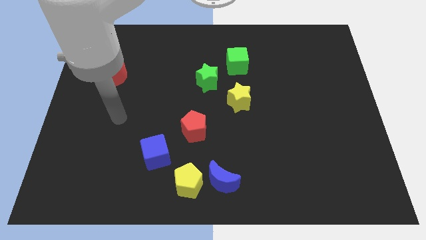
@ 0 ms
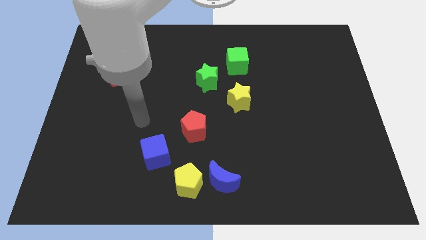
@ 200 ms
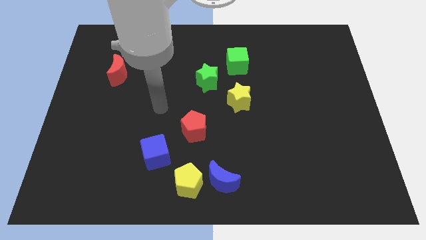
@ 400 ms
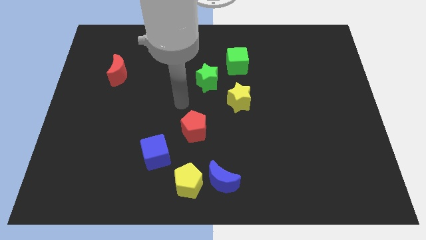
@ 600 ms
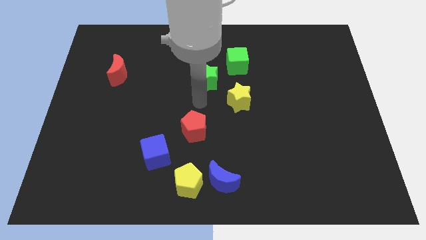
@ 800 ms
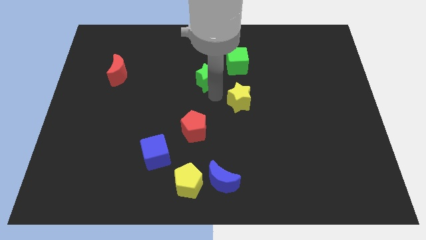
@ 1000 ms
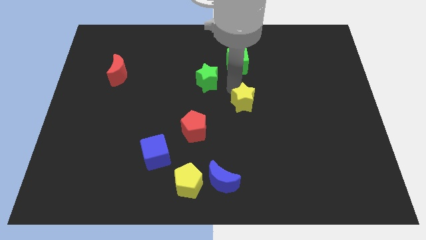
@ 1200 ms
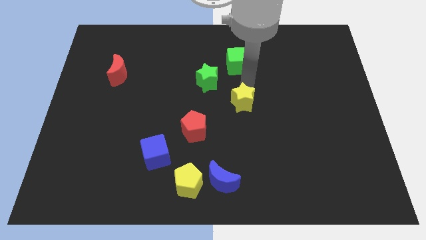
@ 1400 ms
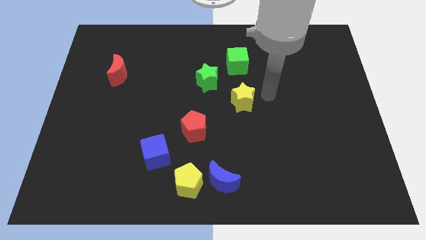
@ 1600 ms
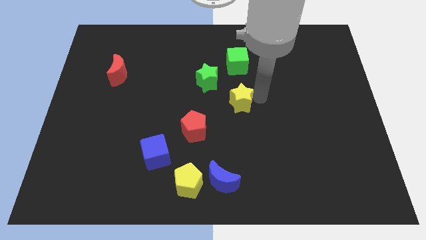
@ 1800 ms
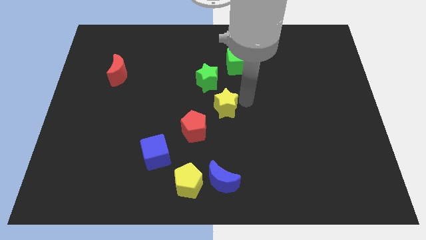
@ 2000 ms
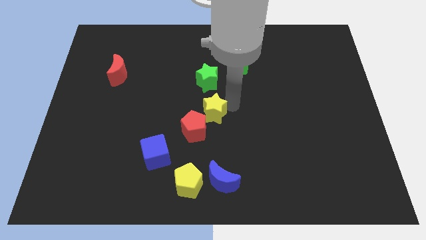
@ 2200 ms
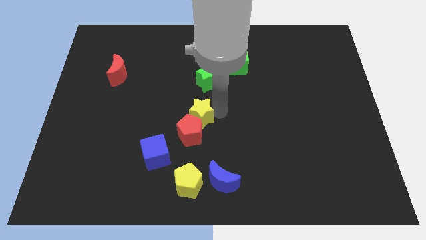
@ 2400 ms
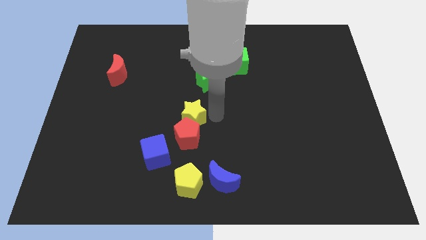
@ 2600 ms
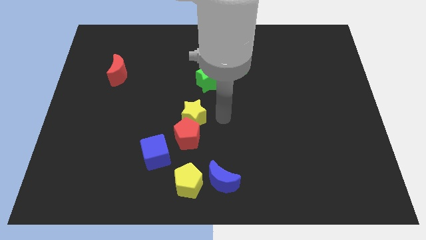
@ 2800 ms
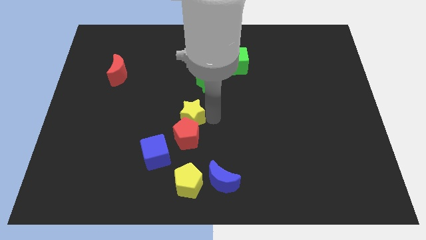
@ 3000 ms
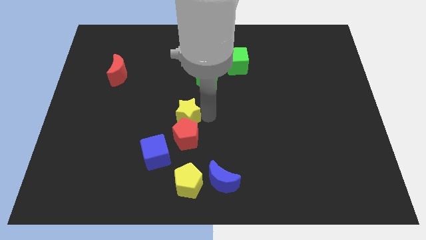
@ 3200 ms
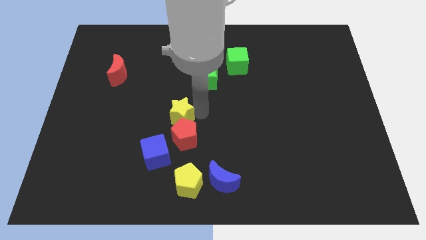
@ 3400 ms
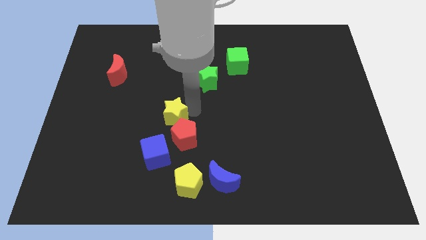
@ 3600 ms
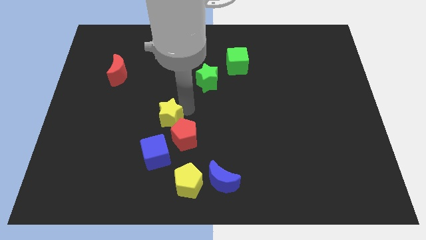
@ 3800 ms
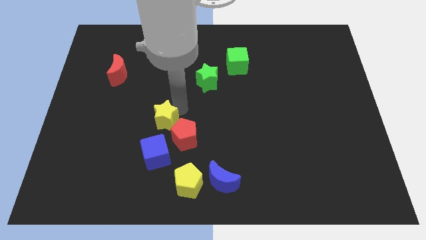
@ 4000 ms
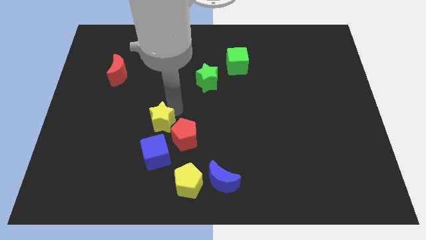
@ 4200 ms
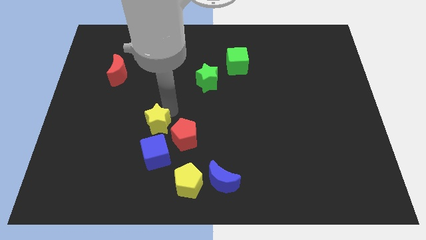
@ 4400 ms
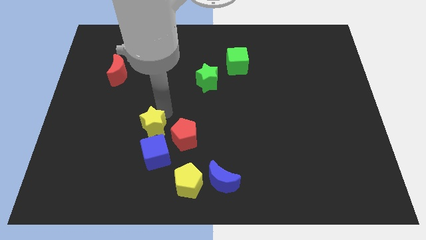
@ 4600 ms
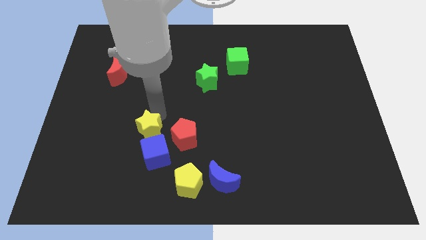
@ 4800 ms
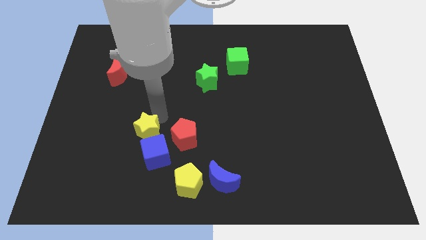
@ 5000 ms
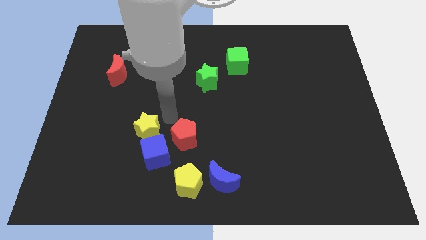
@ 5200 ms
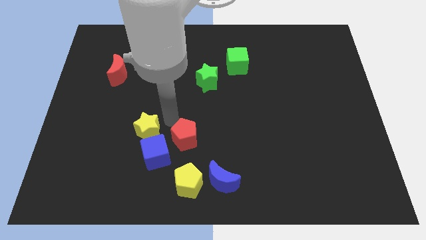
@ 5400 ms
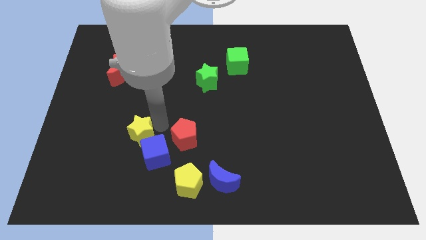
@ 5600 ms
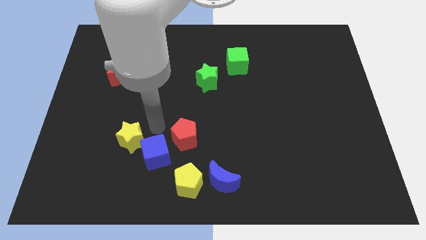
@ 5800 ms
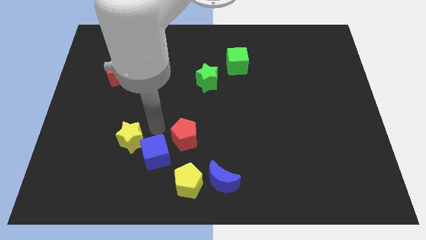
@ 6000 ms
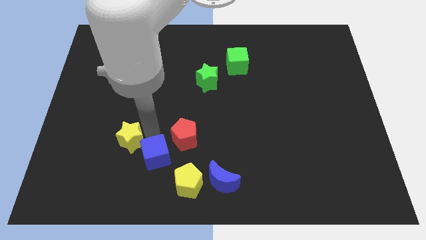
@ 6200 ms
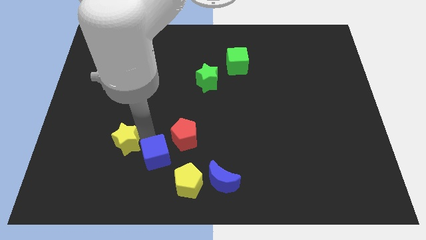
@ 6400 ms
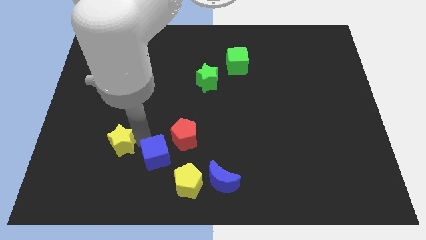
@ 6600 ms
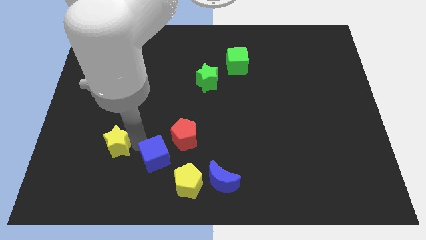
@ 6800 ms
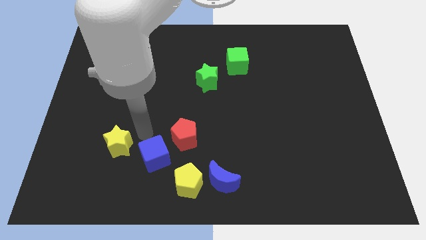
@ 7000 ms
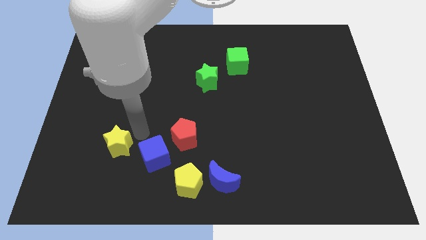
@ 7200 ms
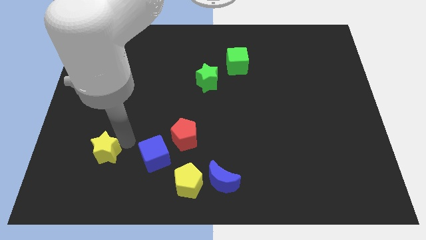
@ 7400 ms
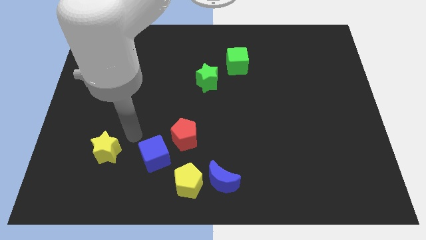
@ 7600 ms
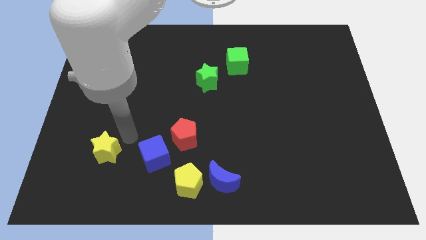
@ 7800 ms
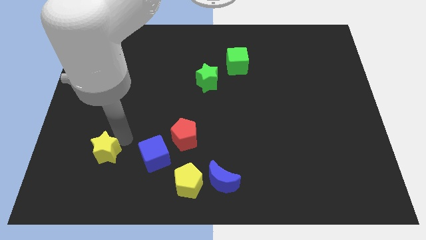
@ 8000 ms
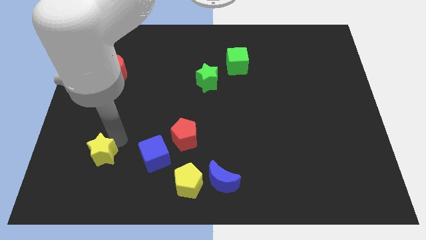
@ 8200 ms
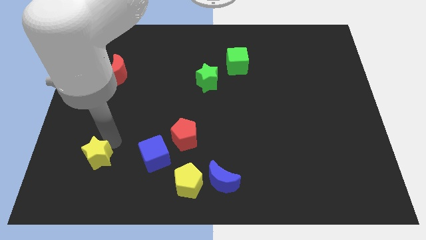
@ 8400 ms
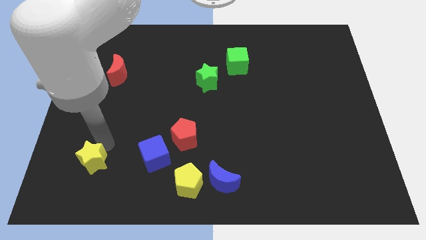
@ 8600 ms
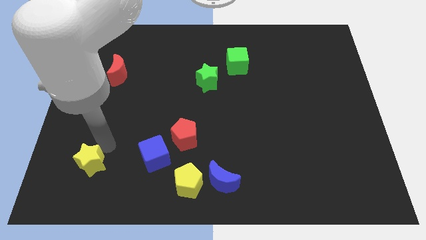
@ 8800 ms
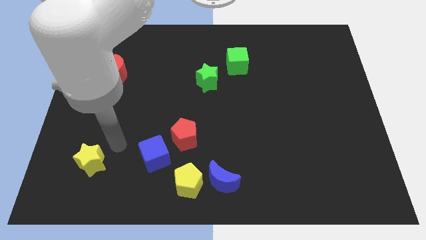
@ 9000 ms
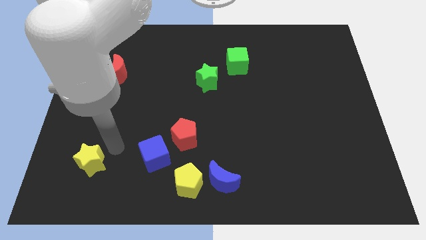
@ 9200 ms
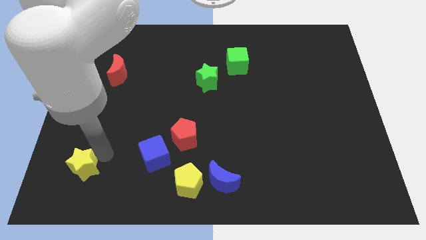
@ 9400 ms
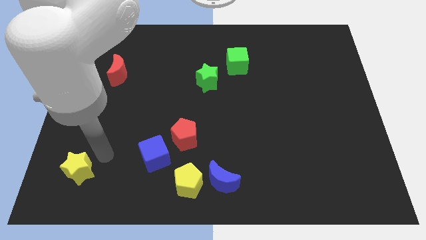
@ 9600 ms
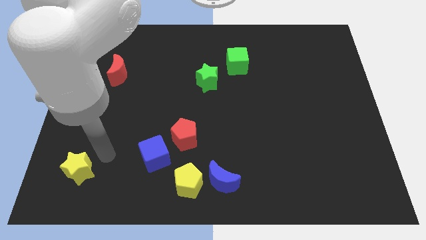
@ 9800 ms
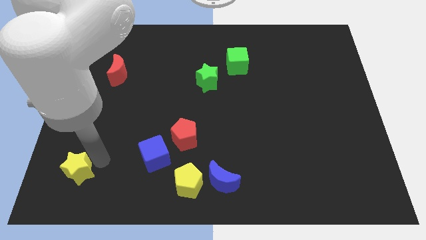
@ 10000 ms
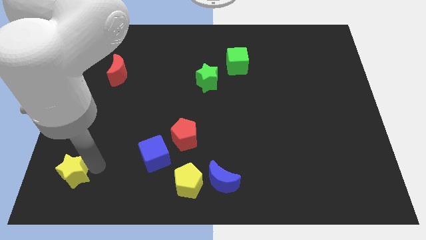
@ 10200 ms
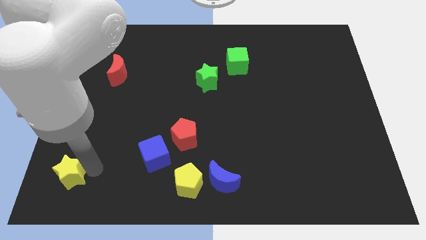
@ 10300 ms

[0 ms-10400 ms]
put the yellow star to the lower left corner

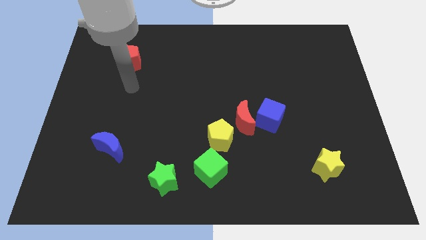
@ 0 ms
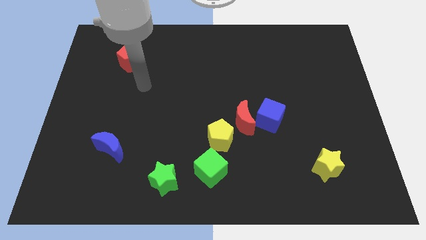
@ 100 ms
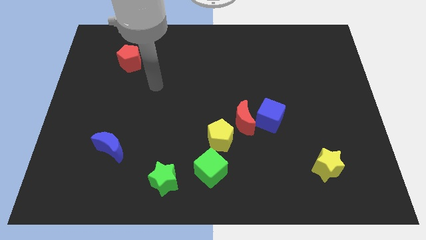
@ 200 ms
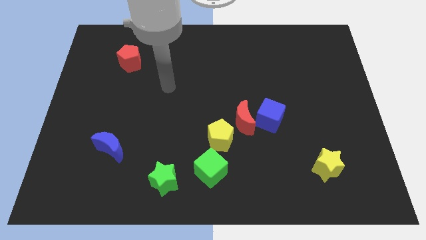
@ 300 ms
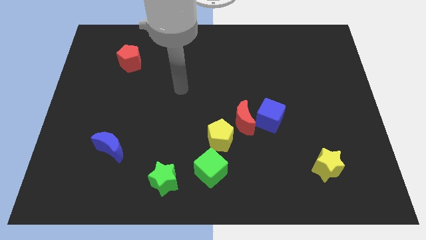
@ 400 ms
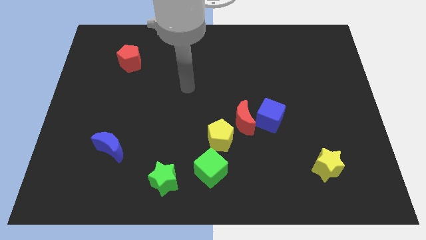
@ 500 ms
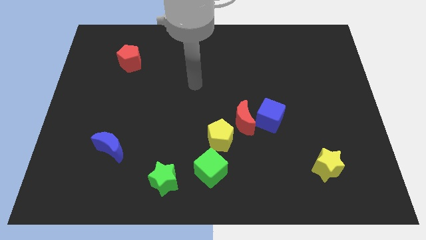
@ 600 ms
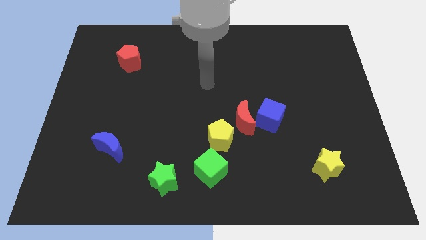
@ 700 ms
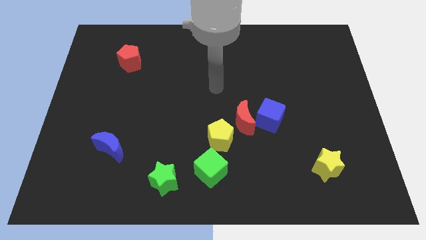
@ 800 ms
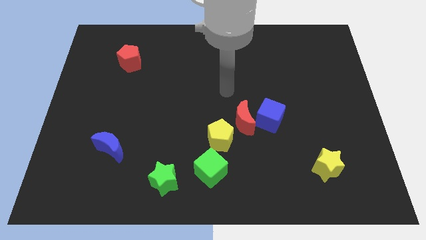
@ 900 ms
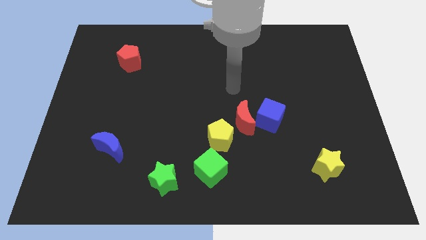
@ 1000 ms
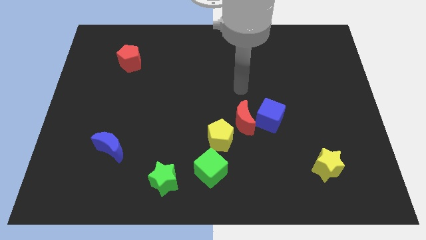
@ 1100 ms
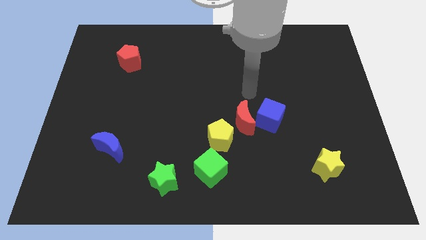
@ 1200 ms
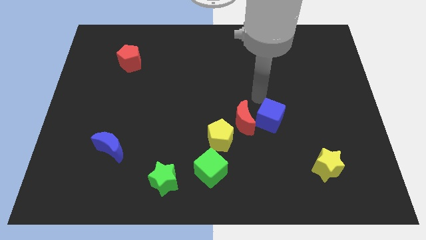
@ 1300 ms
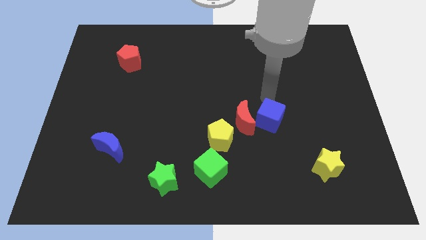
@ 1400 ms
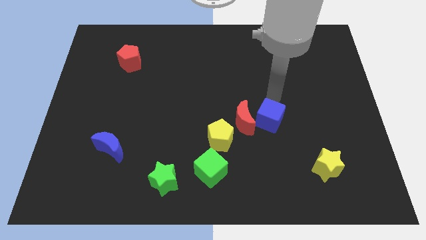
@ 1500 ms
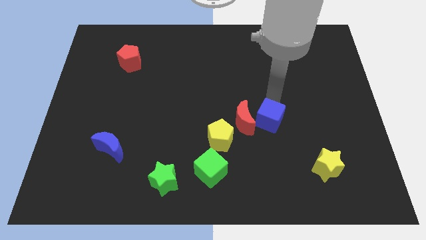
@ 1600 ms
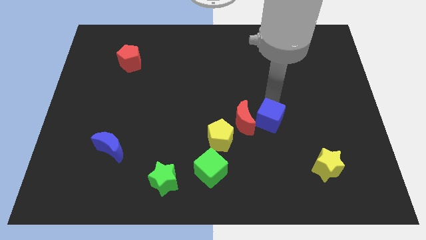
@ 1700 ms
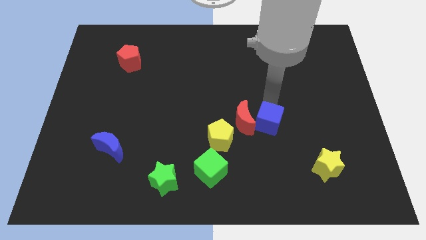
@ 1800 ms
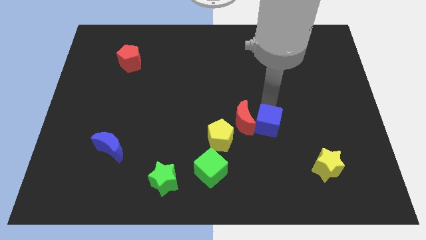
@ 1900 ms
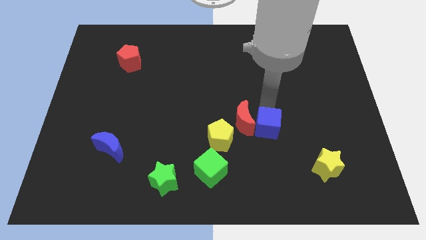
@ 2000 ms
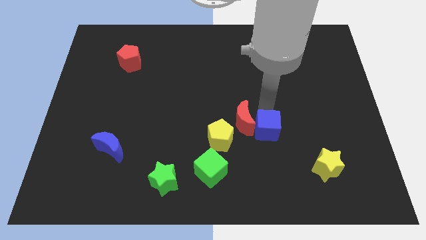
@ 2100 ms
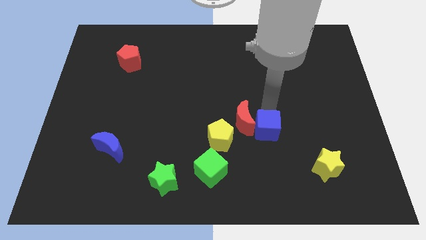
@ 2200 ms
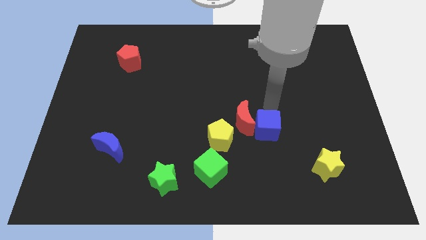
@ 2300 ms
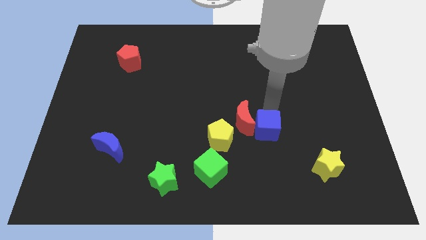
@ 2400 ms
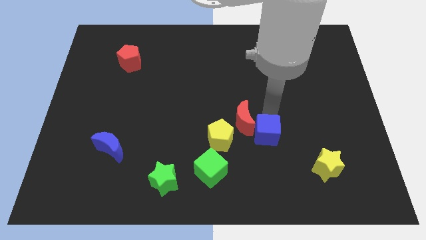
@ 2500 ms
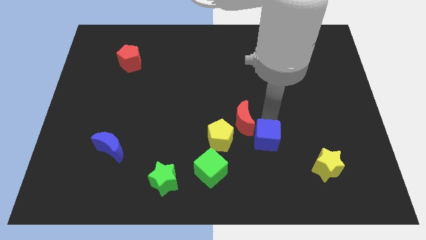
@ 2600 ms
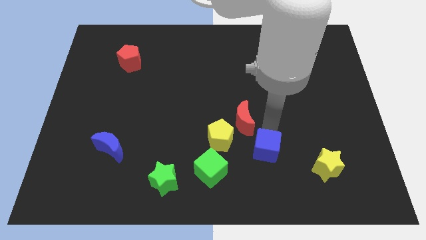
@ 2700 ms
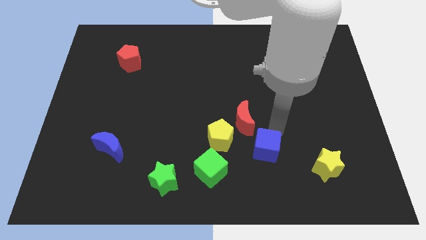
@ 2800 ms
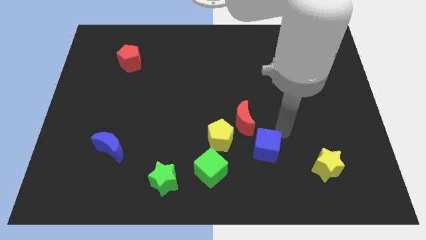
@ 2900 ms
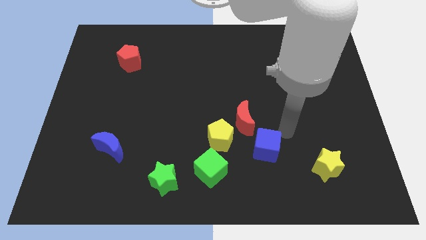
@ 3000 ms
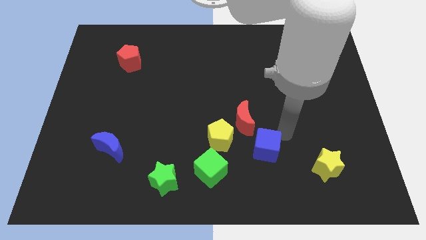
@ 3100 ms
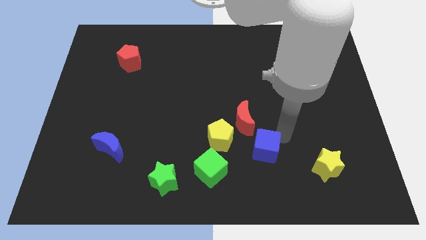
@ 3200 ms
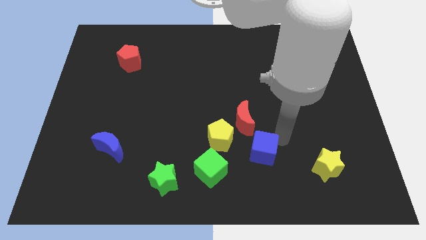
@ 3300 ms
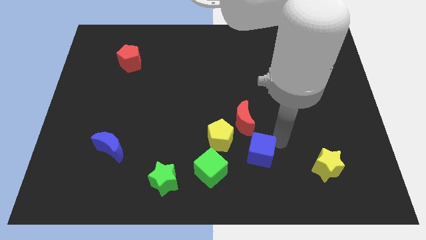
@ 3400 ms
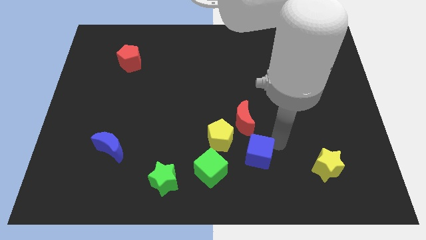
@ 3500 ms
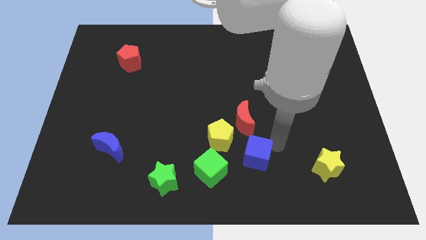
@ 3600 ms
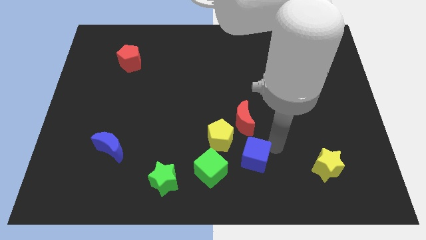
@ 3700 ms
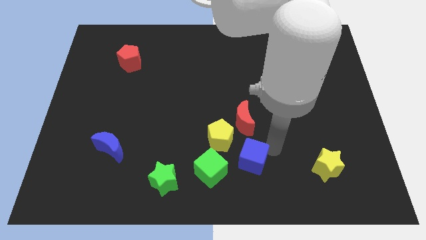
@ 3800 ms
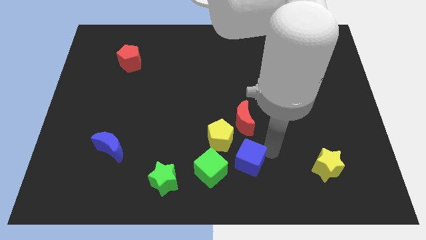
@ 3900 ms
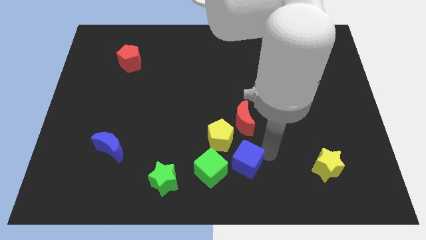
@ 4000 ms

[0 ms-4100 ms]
move the blue cube to the bottom side
